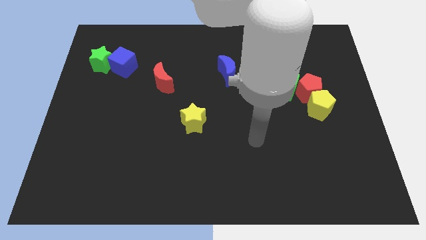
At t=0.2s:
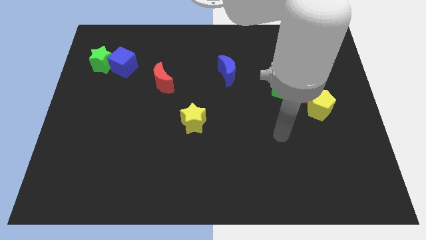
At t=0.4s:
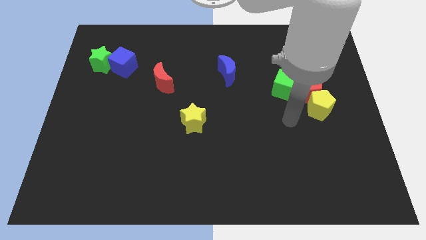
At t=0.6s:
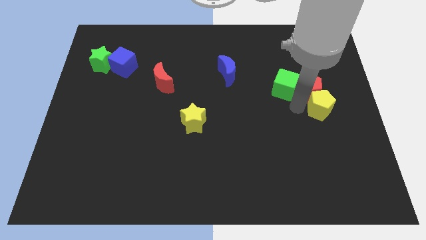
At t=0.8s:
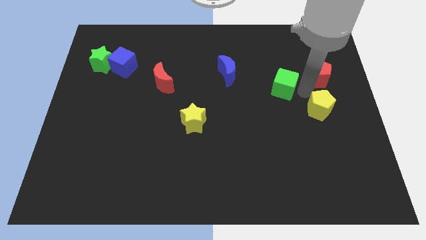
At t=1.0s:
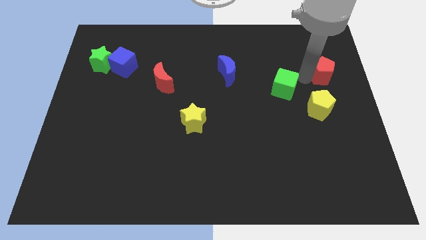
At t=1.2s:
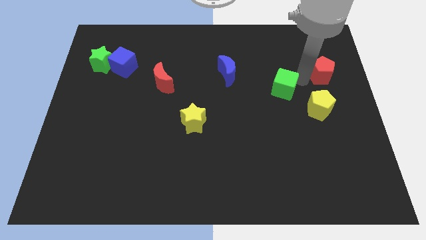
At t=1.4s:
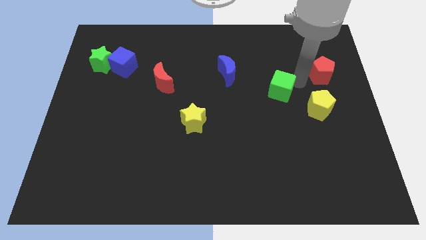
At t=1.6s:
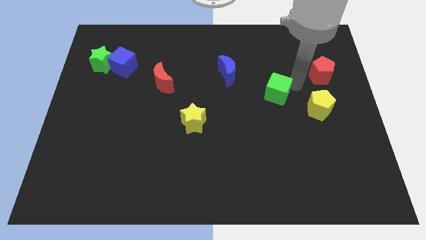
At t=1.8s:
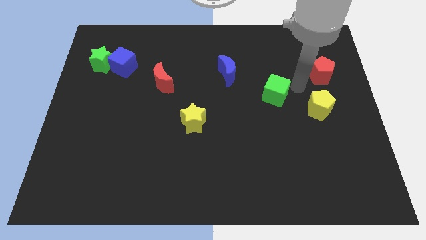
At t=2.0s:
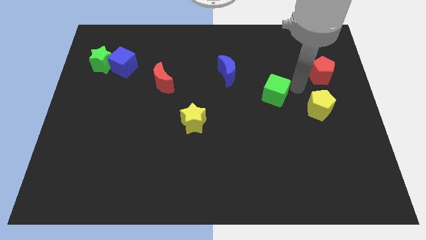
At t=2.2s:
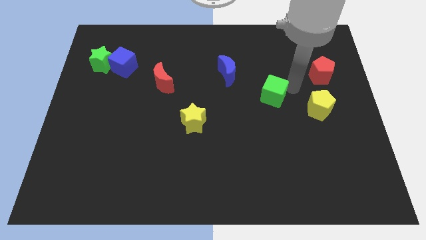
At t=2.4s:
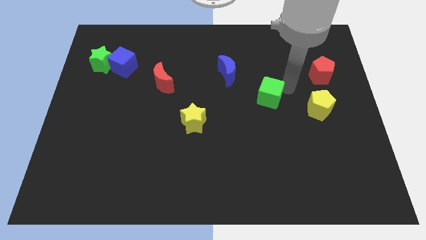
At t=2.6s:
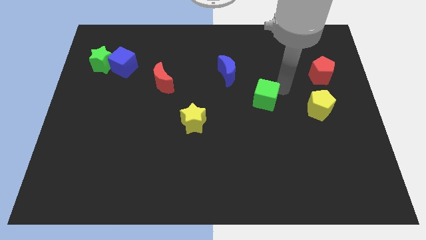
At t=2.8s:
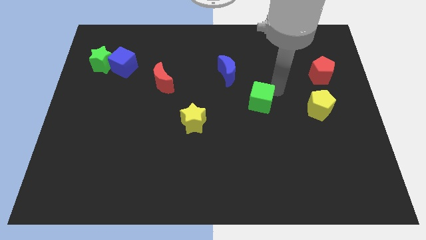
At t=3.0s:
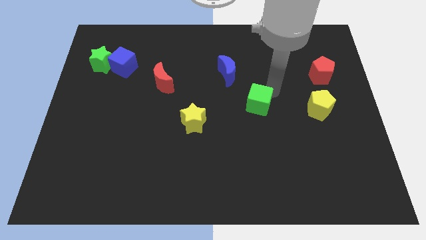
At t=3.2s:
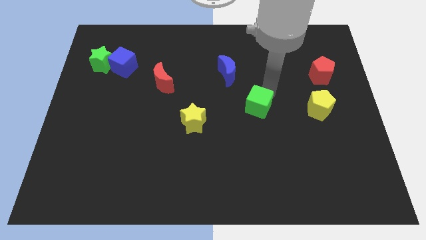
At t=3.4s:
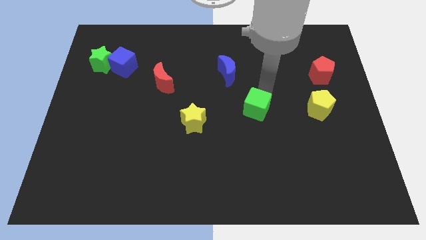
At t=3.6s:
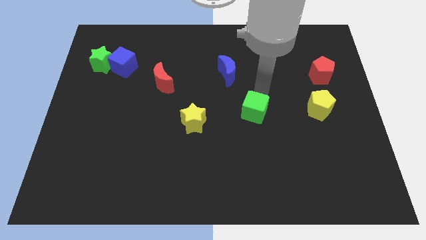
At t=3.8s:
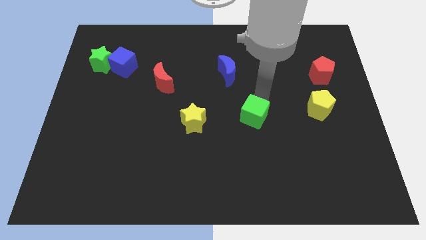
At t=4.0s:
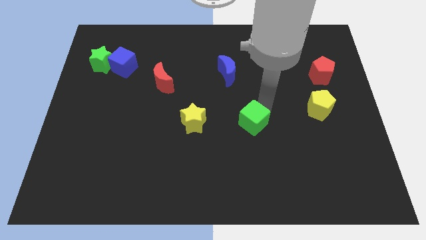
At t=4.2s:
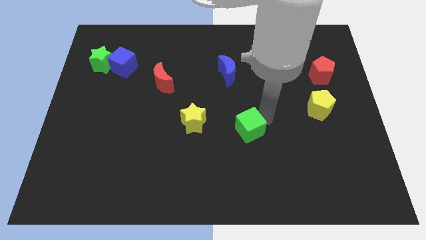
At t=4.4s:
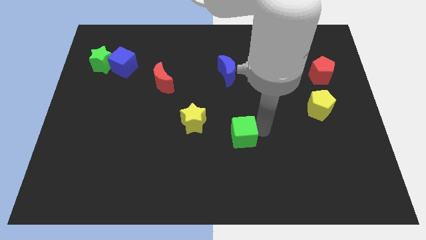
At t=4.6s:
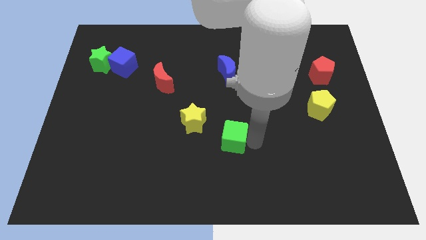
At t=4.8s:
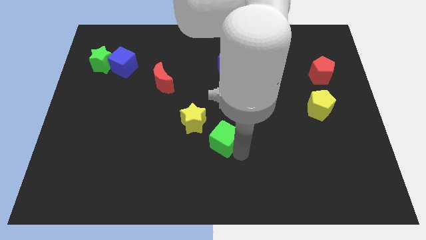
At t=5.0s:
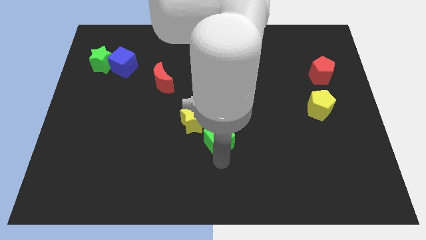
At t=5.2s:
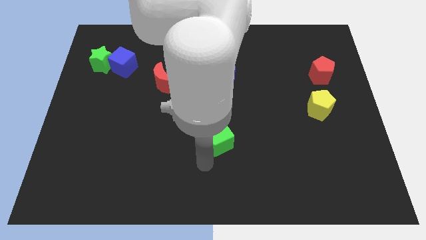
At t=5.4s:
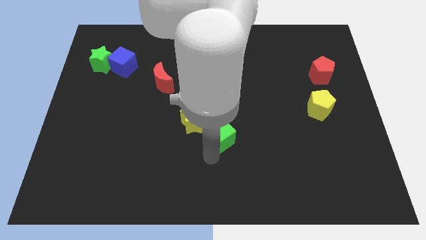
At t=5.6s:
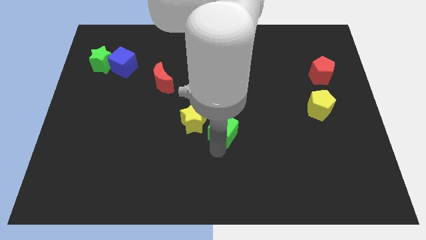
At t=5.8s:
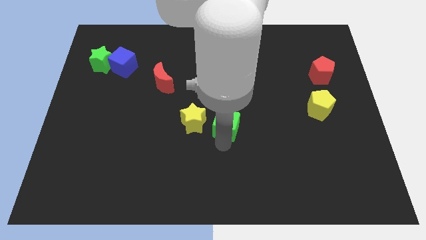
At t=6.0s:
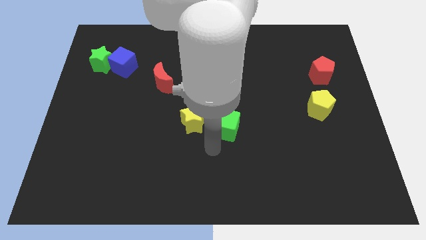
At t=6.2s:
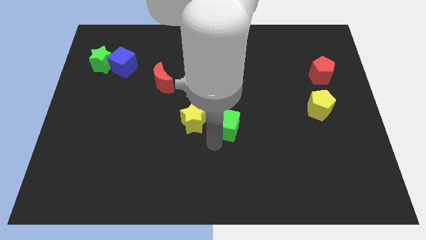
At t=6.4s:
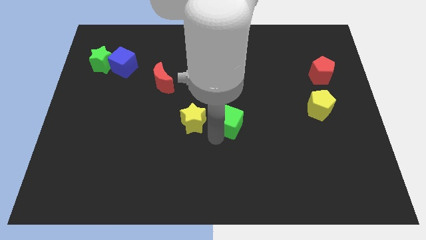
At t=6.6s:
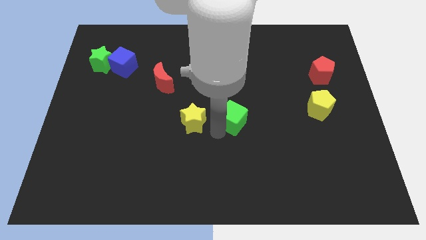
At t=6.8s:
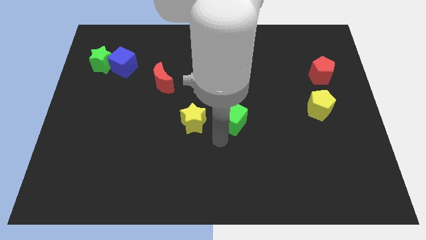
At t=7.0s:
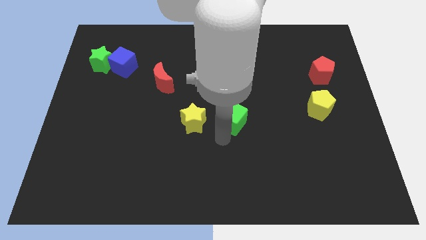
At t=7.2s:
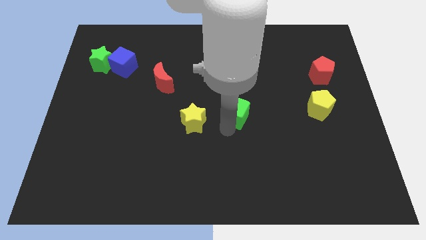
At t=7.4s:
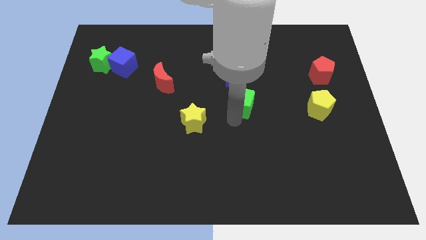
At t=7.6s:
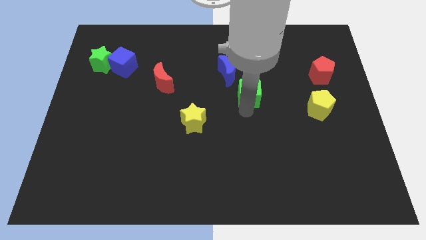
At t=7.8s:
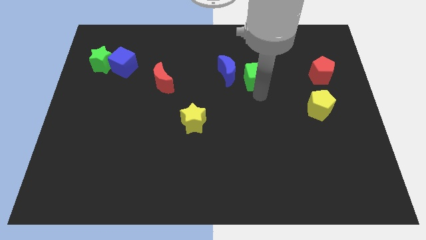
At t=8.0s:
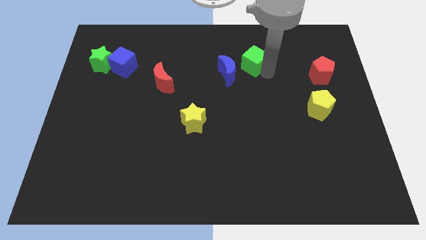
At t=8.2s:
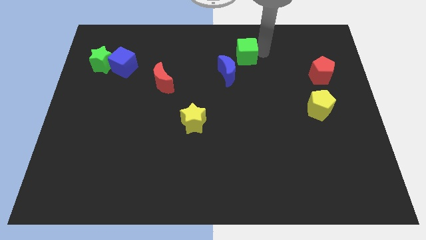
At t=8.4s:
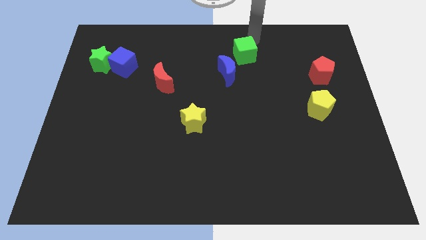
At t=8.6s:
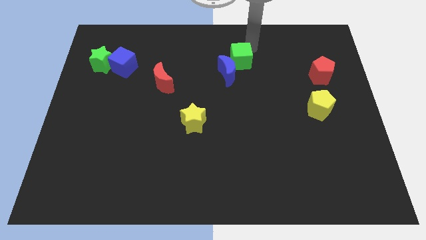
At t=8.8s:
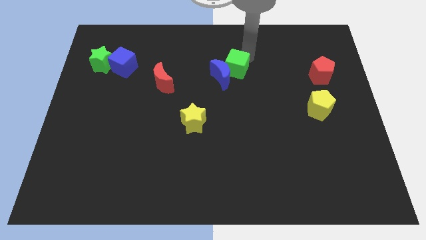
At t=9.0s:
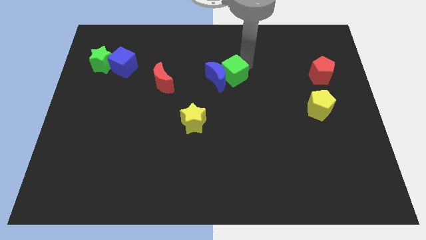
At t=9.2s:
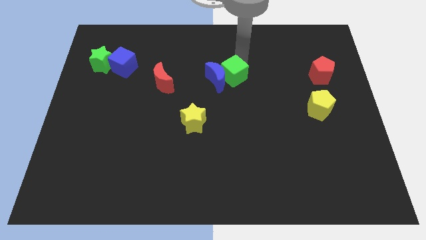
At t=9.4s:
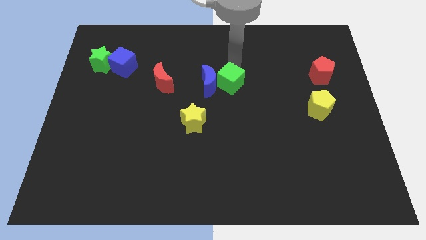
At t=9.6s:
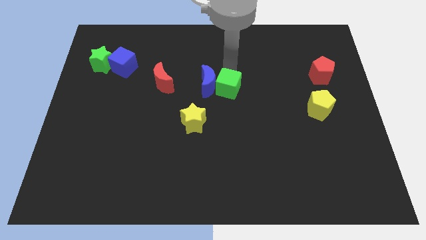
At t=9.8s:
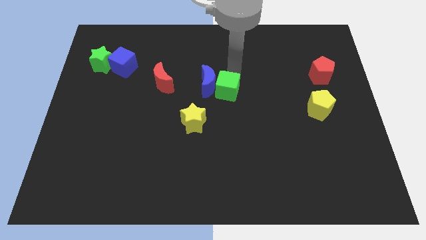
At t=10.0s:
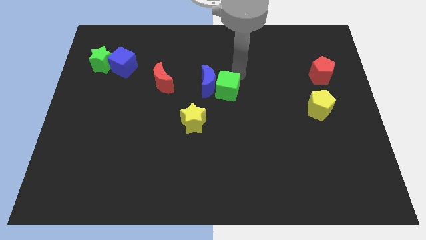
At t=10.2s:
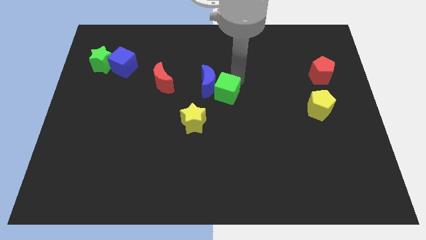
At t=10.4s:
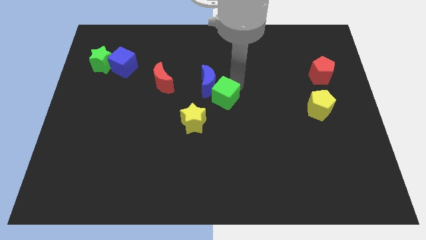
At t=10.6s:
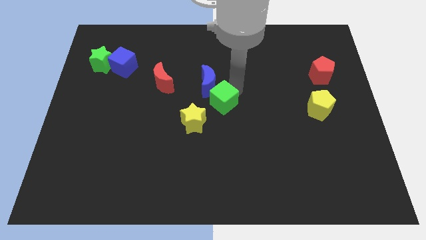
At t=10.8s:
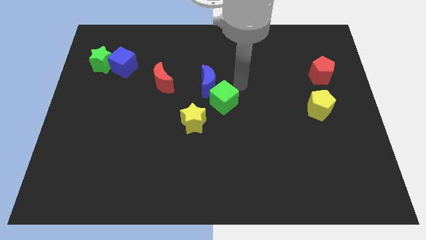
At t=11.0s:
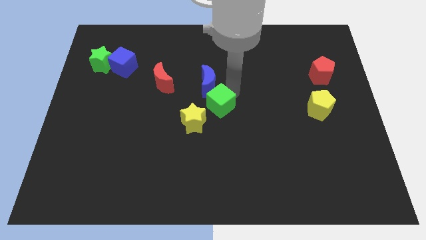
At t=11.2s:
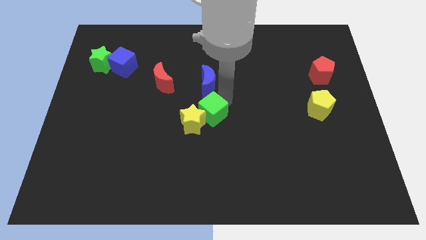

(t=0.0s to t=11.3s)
put the green cube to the yellow star
